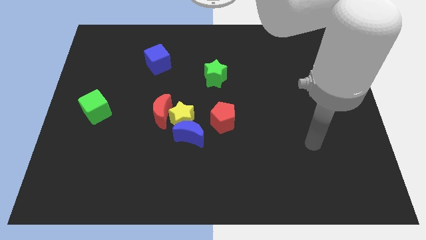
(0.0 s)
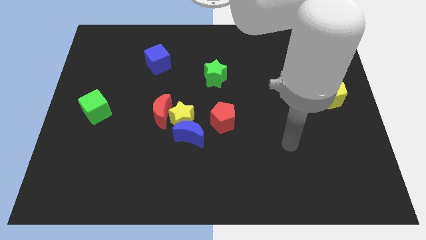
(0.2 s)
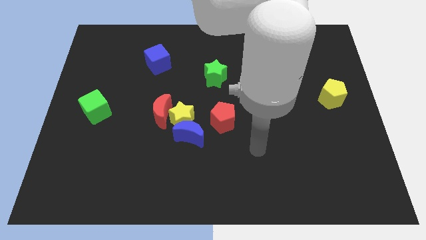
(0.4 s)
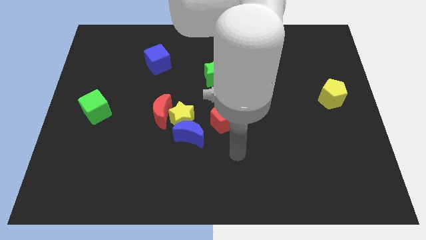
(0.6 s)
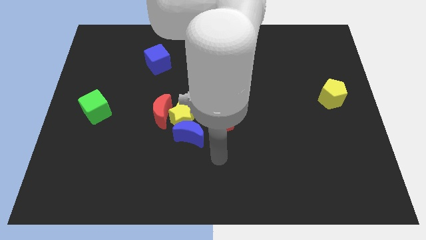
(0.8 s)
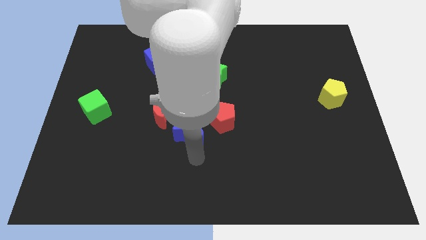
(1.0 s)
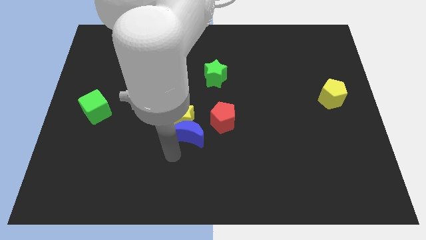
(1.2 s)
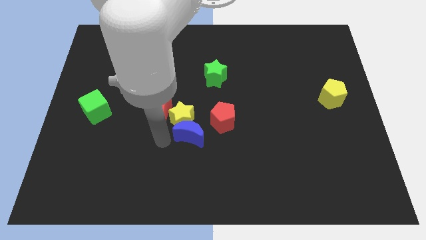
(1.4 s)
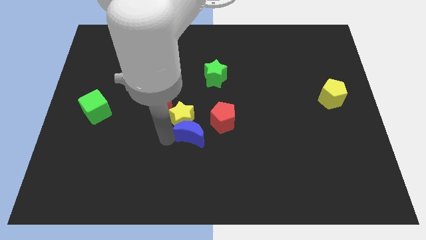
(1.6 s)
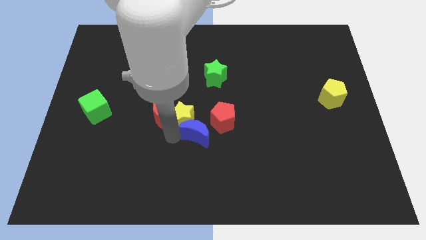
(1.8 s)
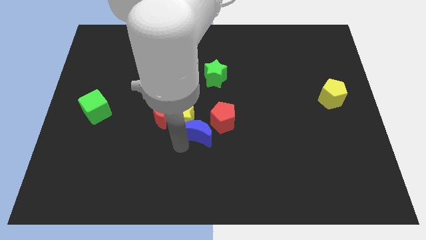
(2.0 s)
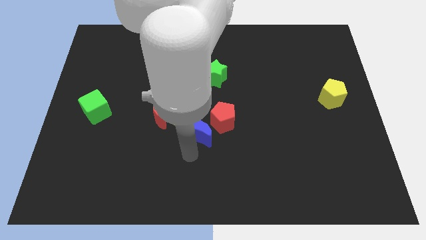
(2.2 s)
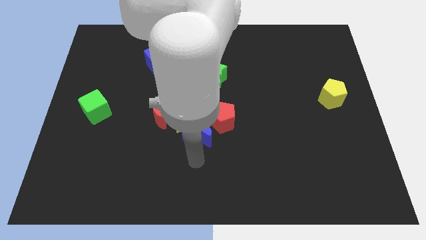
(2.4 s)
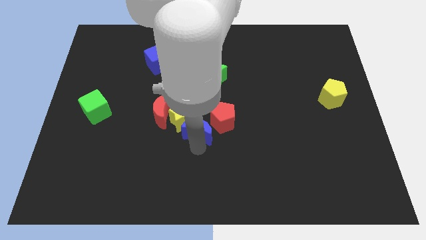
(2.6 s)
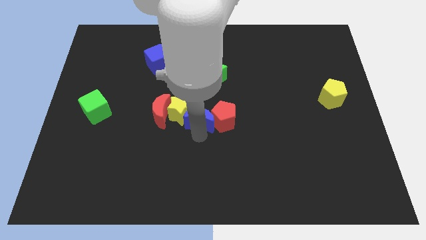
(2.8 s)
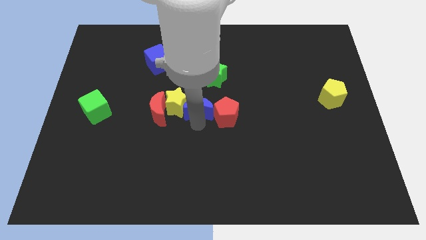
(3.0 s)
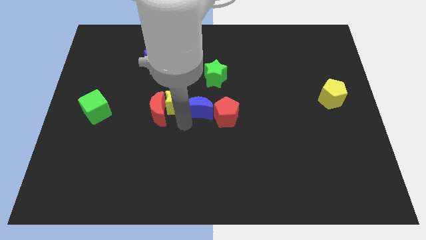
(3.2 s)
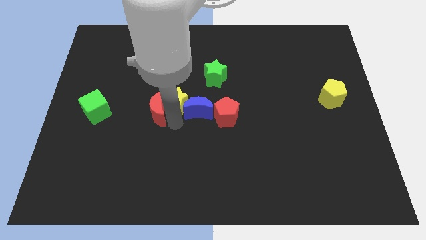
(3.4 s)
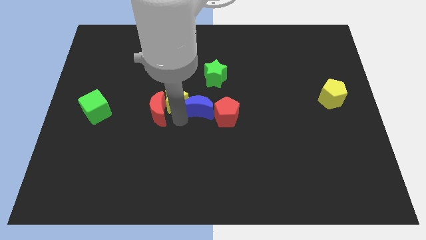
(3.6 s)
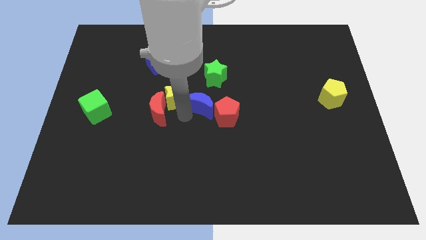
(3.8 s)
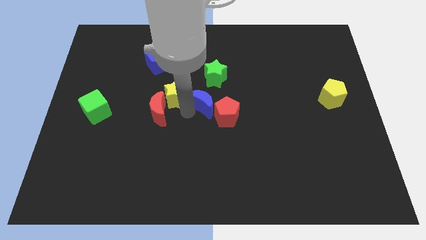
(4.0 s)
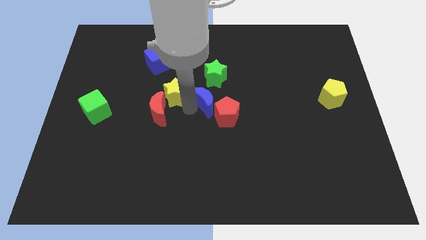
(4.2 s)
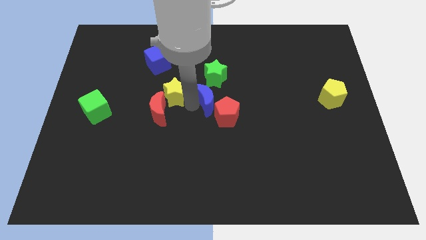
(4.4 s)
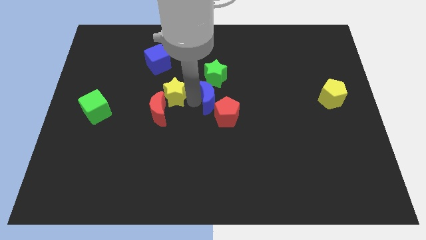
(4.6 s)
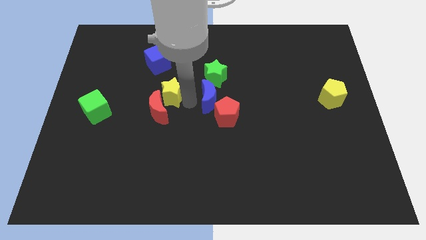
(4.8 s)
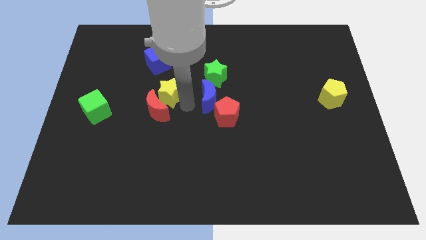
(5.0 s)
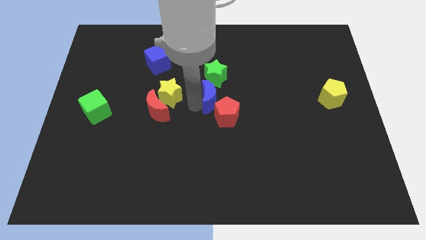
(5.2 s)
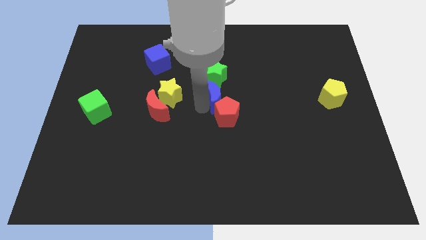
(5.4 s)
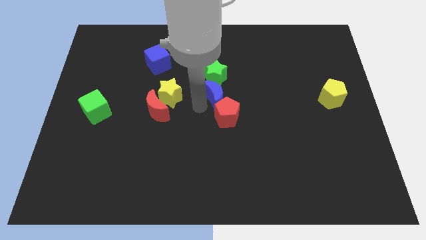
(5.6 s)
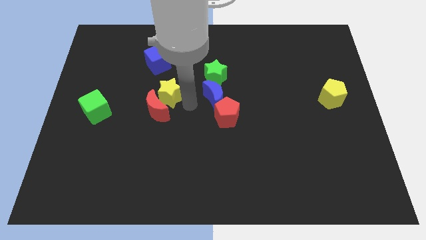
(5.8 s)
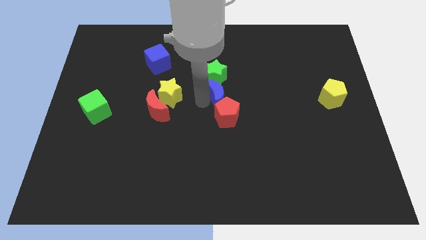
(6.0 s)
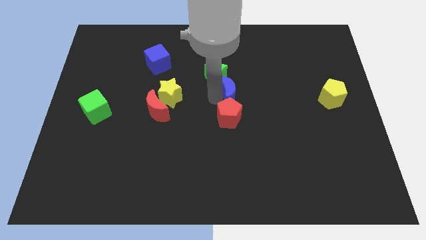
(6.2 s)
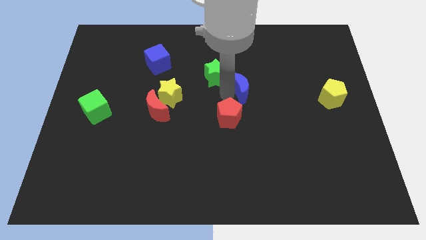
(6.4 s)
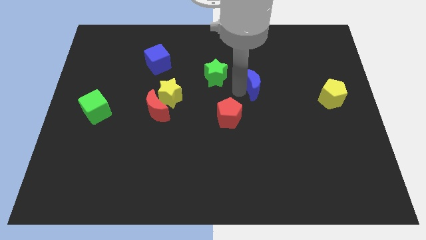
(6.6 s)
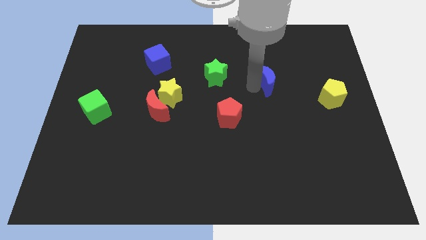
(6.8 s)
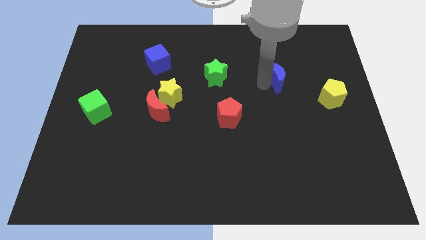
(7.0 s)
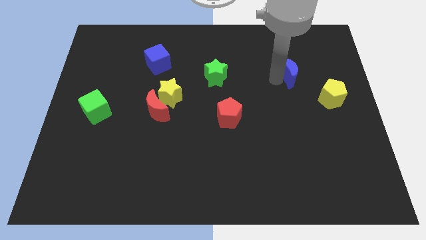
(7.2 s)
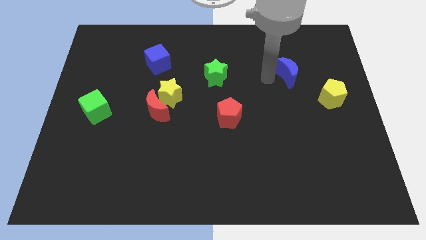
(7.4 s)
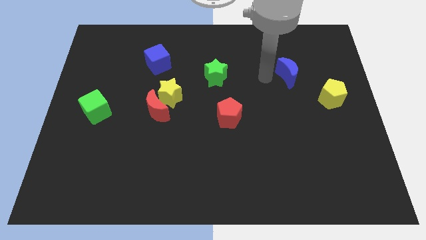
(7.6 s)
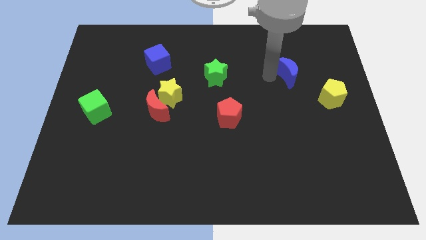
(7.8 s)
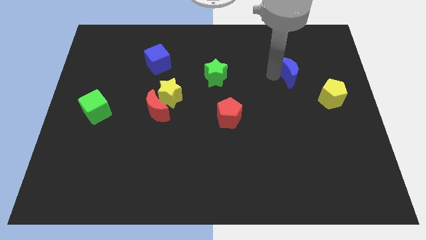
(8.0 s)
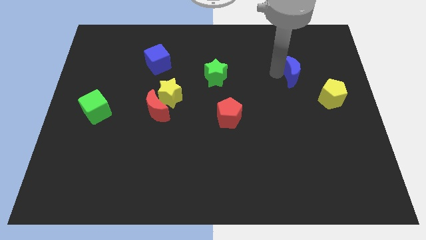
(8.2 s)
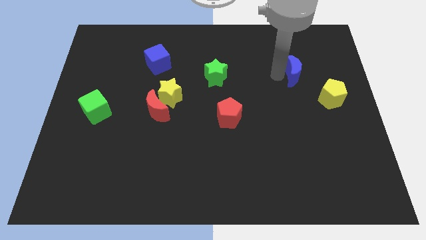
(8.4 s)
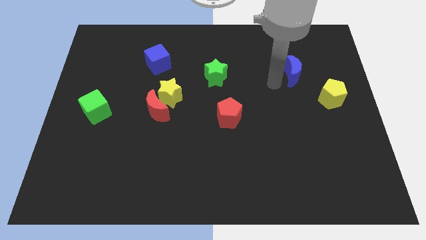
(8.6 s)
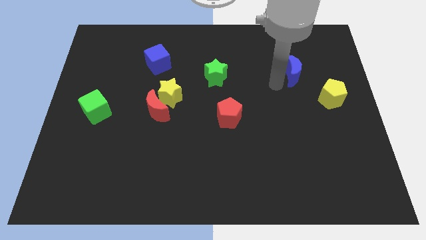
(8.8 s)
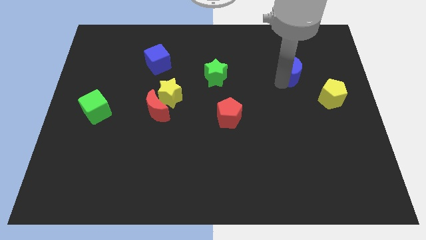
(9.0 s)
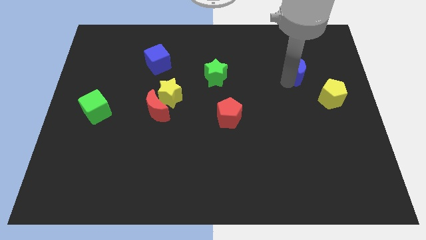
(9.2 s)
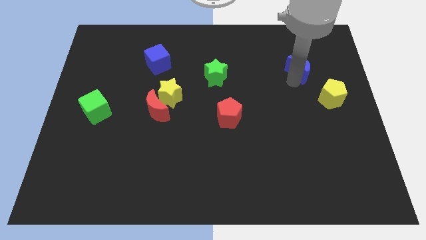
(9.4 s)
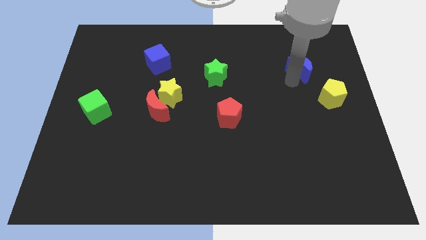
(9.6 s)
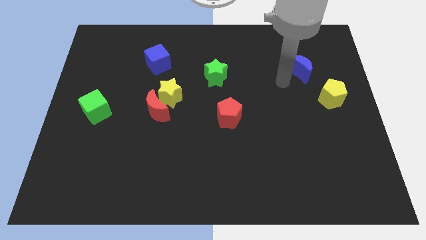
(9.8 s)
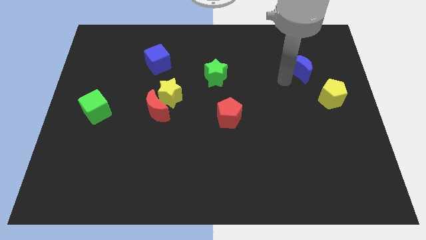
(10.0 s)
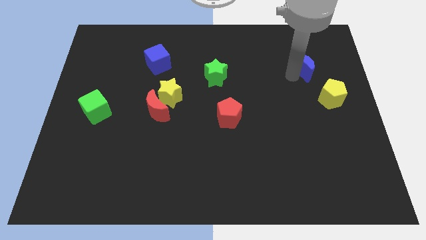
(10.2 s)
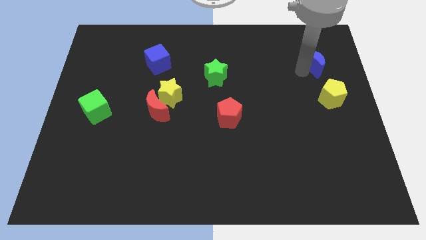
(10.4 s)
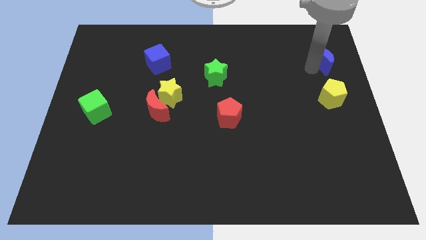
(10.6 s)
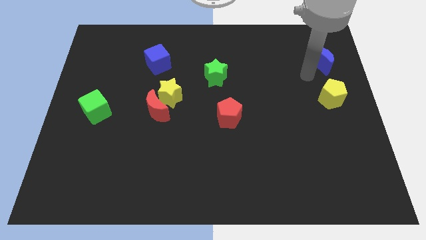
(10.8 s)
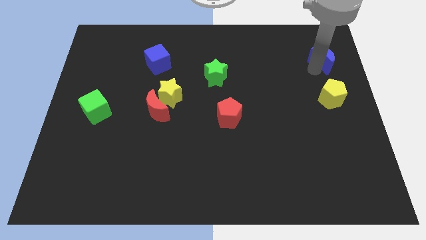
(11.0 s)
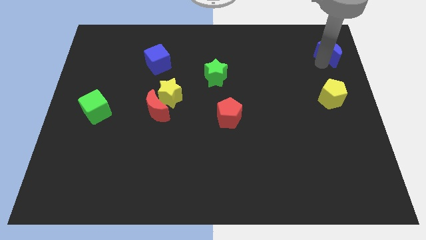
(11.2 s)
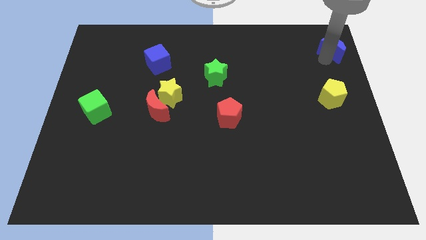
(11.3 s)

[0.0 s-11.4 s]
move the blue moon to the top right corner
